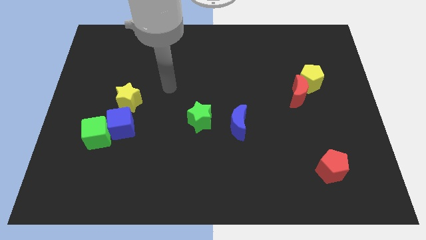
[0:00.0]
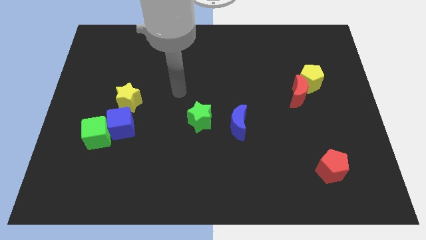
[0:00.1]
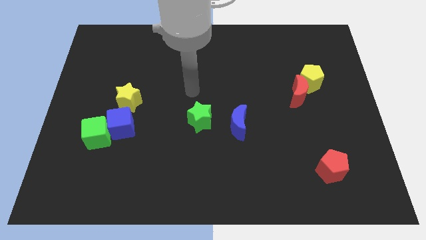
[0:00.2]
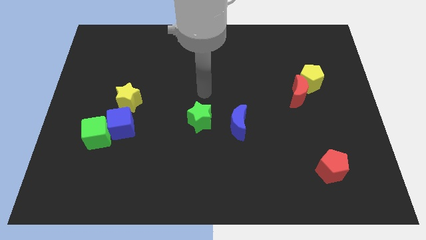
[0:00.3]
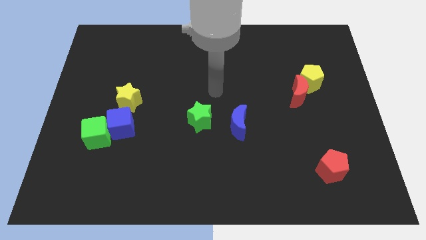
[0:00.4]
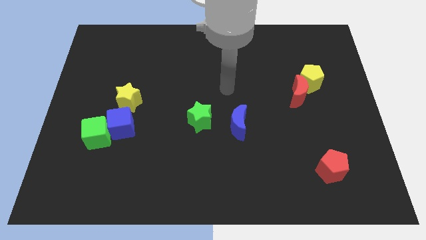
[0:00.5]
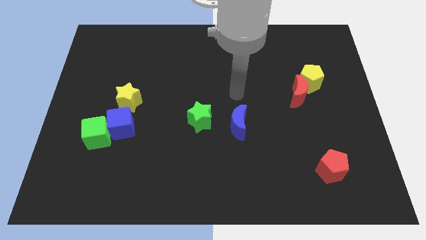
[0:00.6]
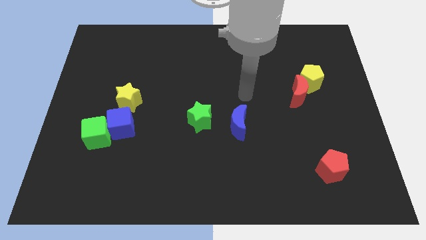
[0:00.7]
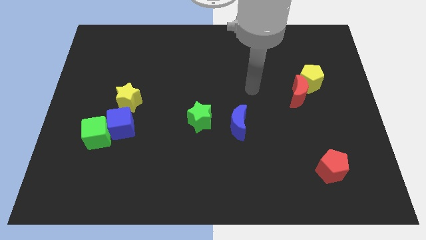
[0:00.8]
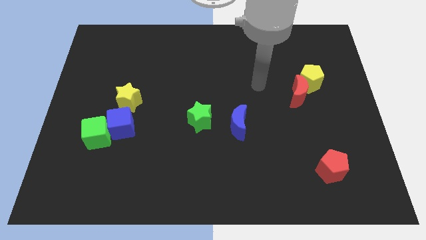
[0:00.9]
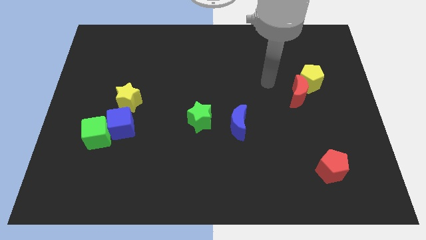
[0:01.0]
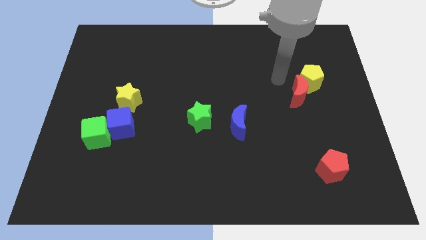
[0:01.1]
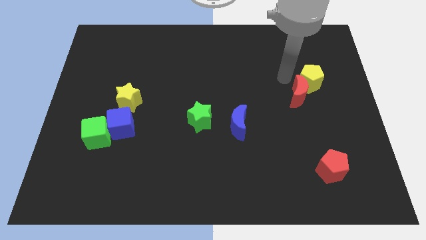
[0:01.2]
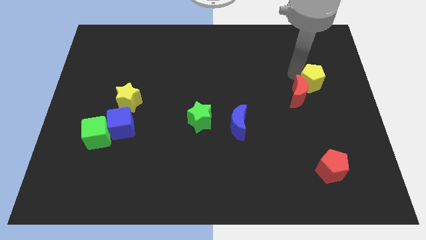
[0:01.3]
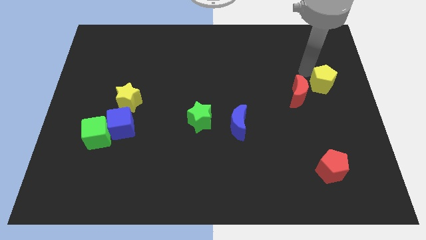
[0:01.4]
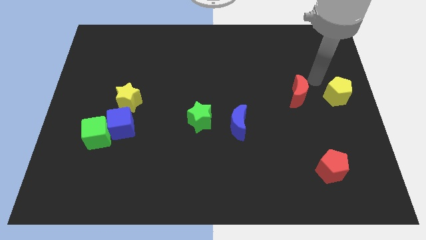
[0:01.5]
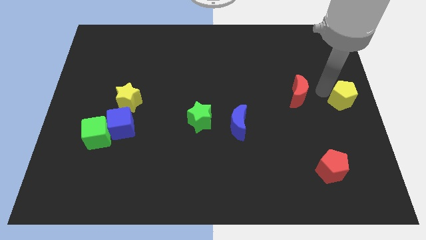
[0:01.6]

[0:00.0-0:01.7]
separate the red moon from the yellow pentagon

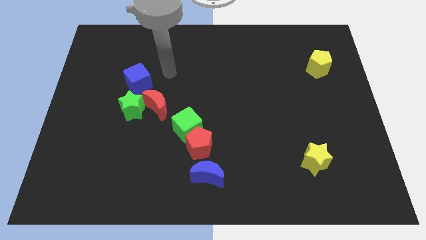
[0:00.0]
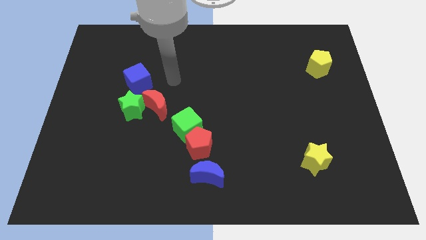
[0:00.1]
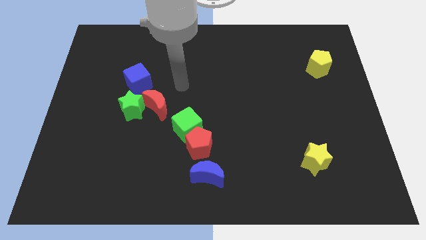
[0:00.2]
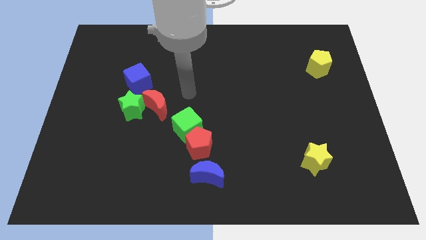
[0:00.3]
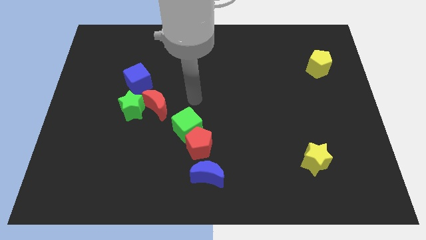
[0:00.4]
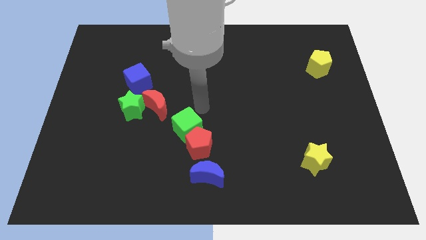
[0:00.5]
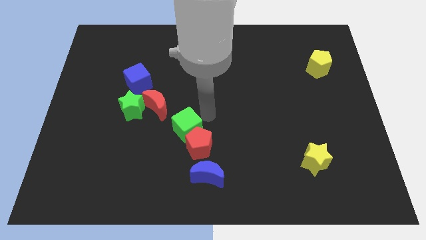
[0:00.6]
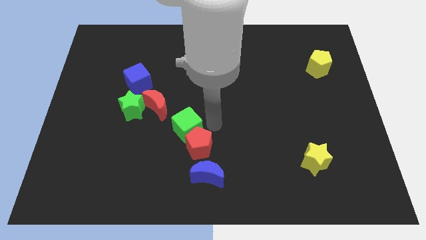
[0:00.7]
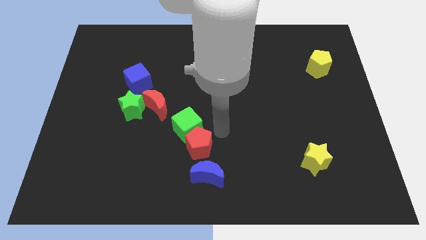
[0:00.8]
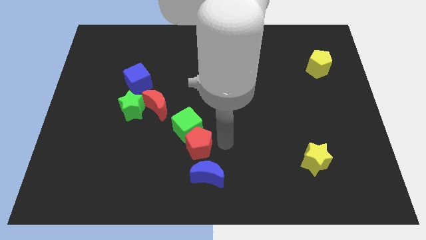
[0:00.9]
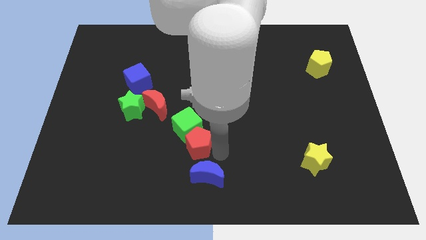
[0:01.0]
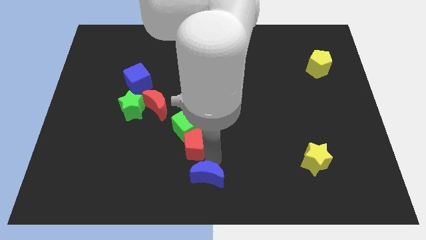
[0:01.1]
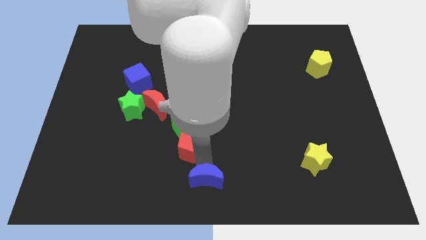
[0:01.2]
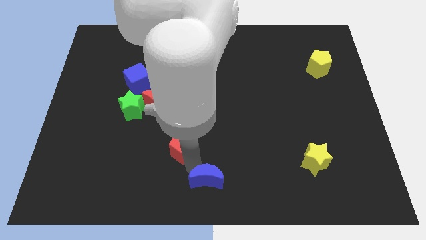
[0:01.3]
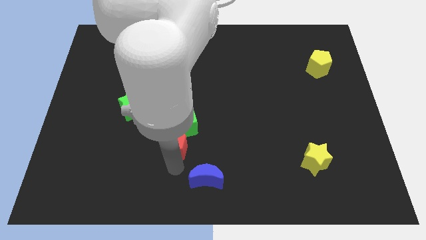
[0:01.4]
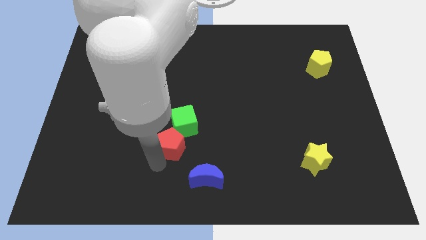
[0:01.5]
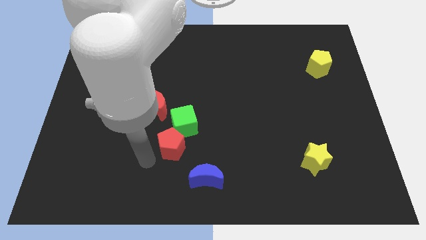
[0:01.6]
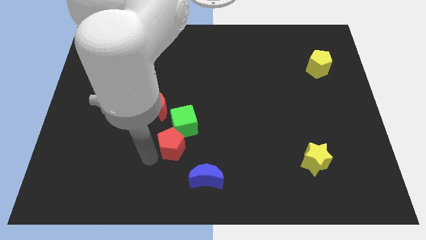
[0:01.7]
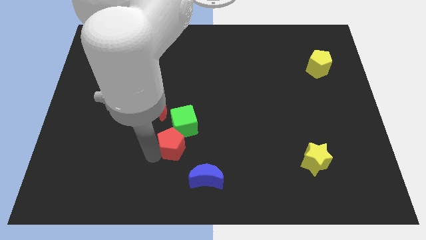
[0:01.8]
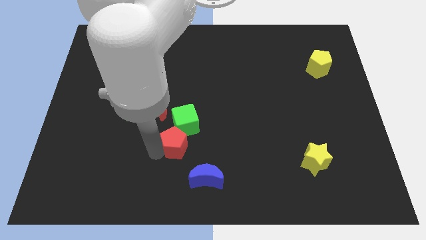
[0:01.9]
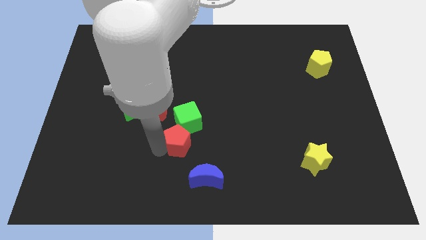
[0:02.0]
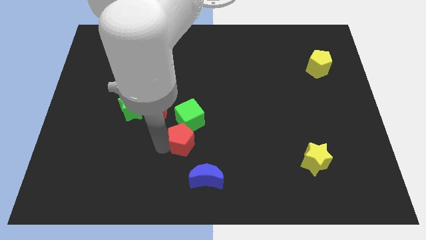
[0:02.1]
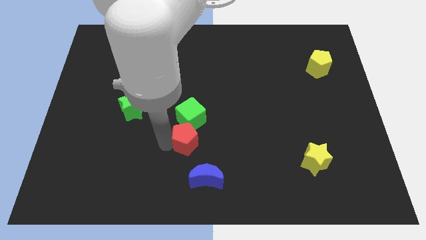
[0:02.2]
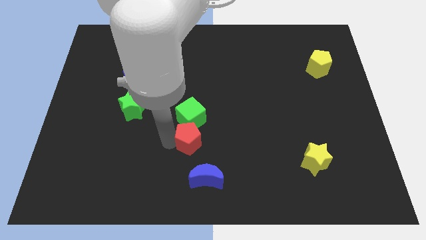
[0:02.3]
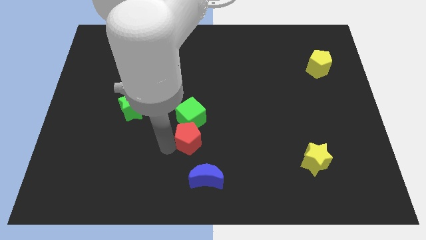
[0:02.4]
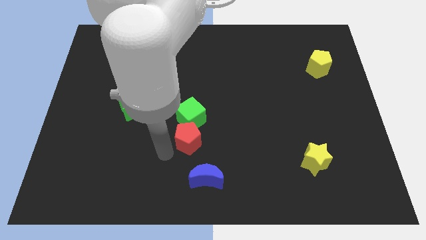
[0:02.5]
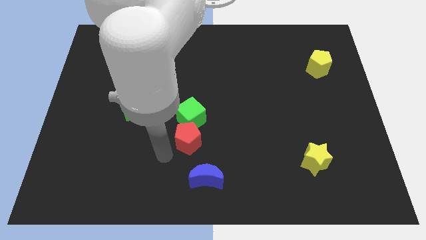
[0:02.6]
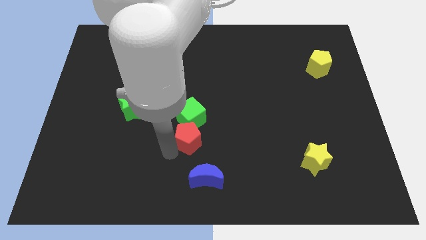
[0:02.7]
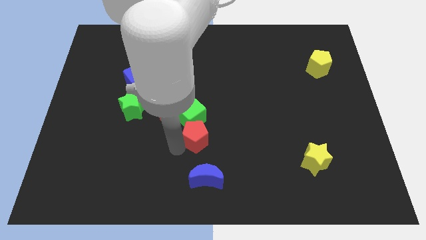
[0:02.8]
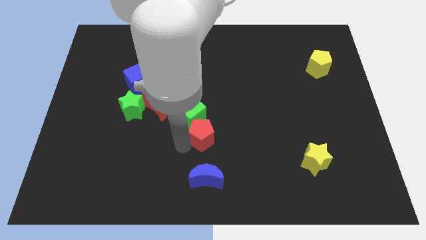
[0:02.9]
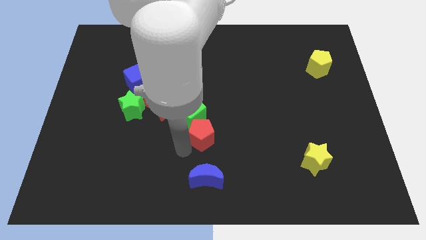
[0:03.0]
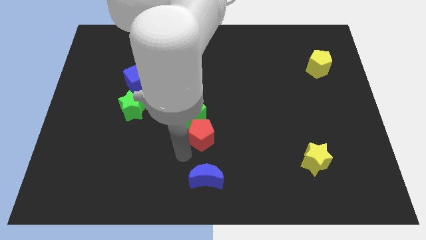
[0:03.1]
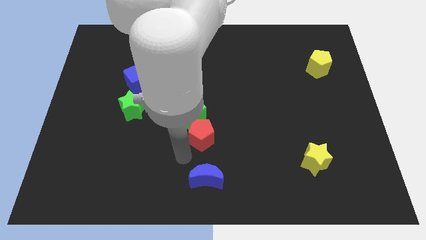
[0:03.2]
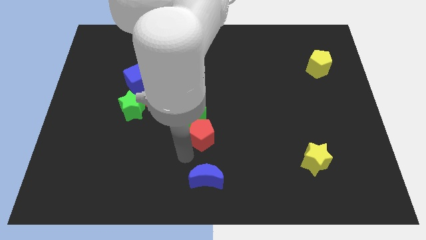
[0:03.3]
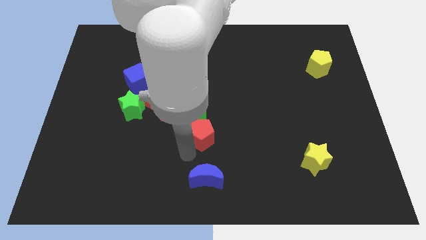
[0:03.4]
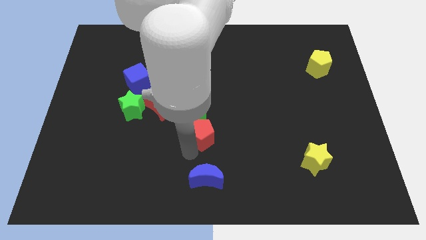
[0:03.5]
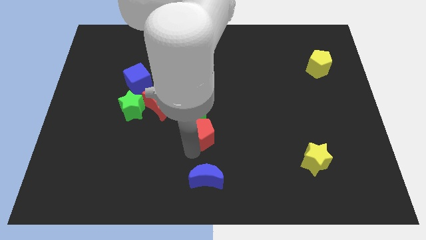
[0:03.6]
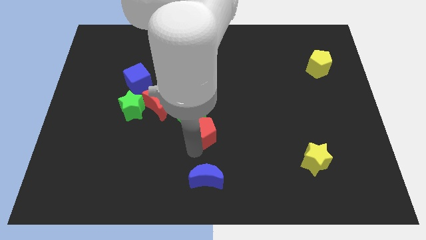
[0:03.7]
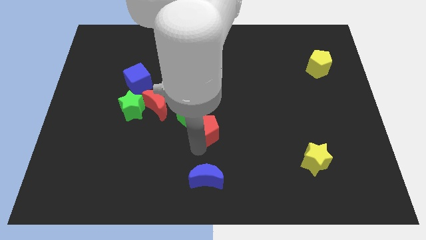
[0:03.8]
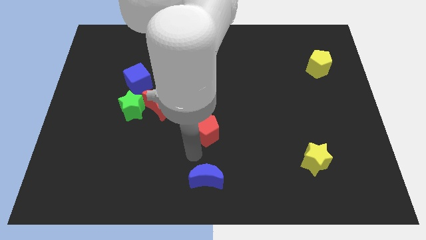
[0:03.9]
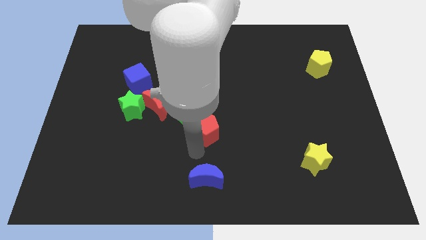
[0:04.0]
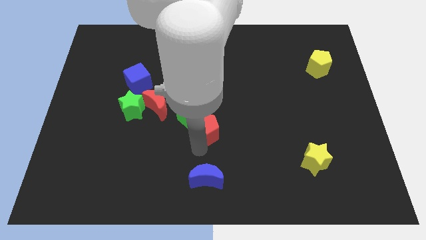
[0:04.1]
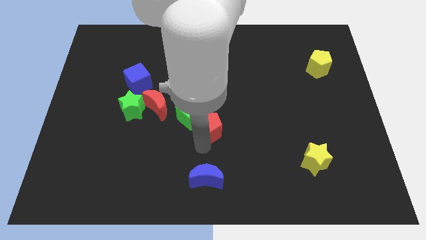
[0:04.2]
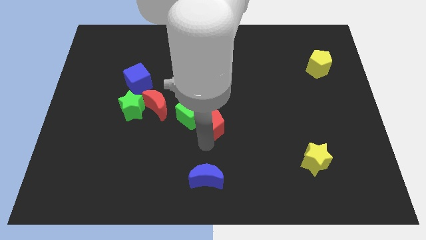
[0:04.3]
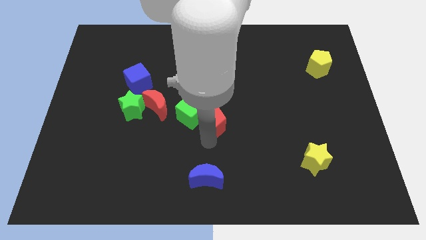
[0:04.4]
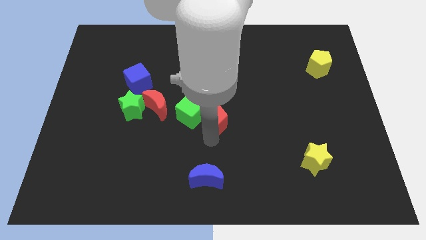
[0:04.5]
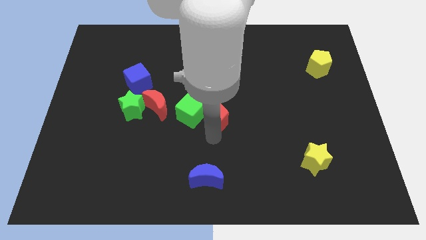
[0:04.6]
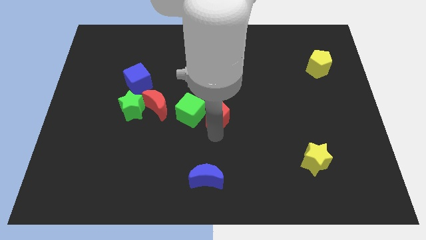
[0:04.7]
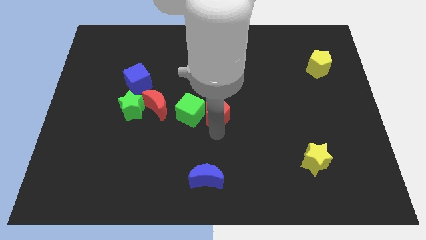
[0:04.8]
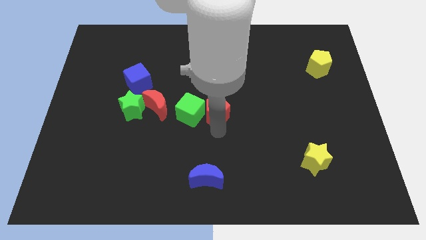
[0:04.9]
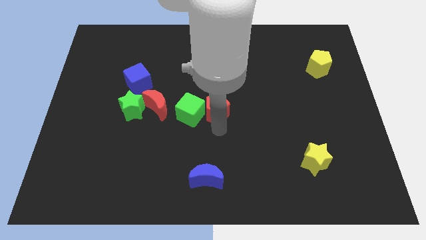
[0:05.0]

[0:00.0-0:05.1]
move the red pentagon away from the green cube and blue moon

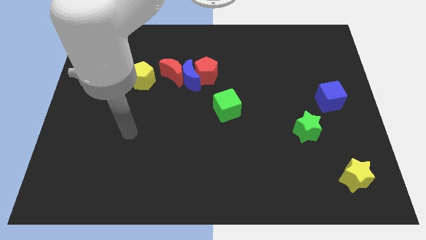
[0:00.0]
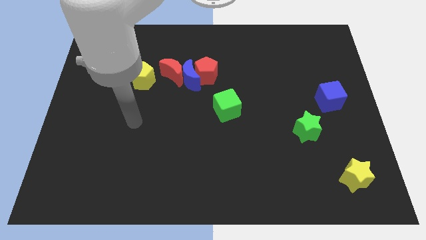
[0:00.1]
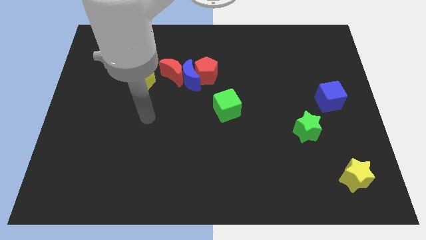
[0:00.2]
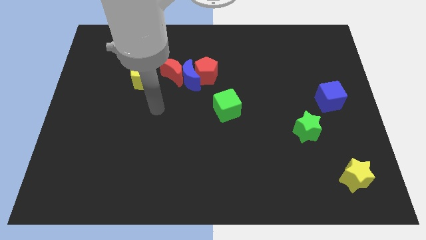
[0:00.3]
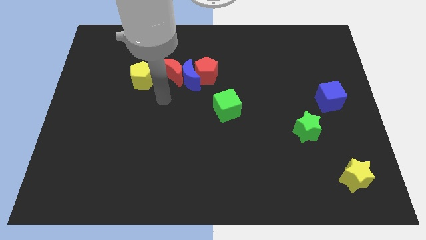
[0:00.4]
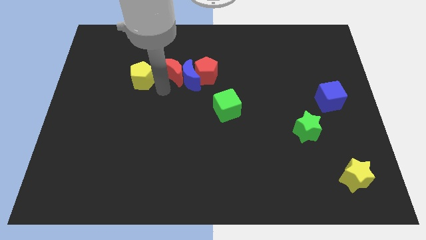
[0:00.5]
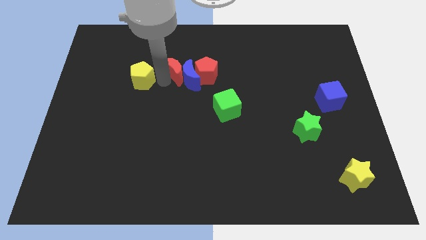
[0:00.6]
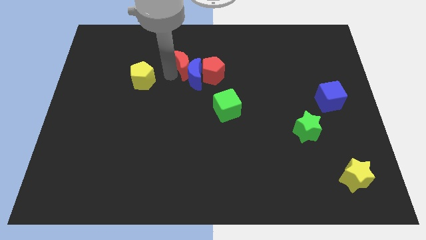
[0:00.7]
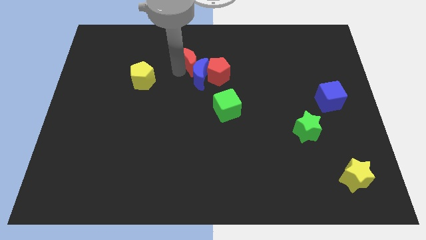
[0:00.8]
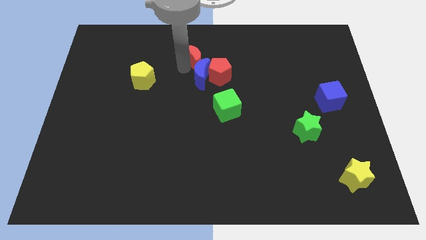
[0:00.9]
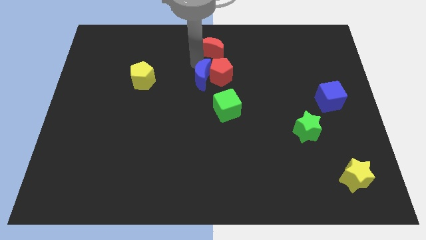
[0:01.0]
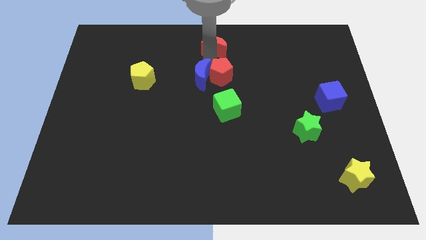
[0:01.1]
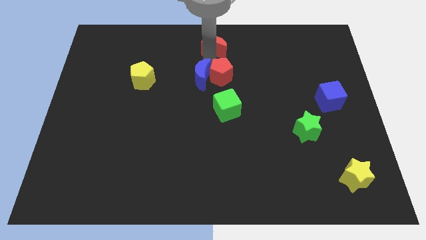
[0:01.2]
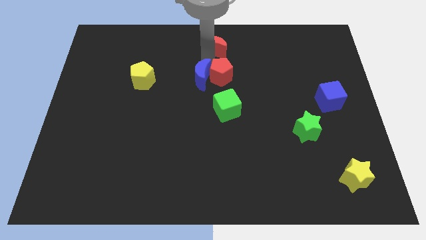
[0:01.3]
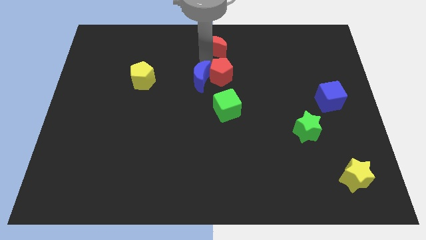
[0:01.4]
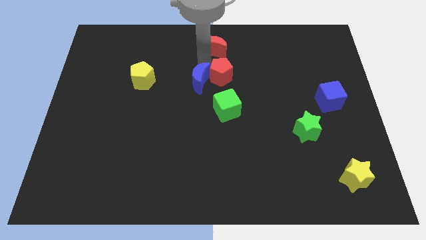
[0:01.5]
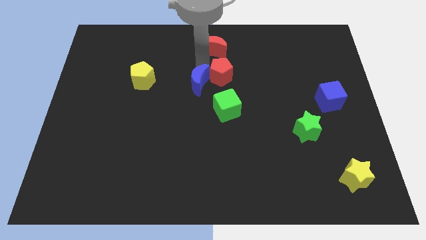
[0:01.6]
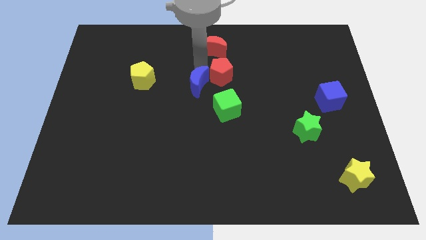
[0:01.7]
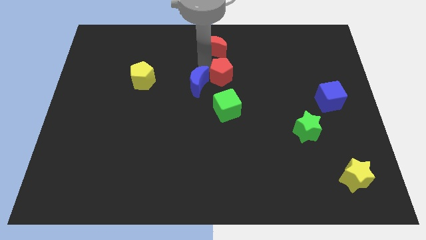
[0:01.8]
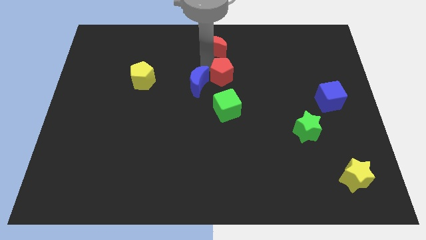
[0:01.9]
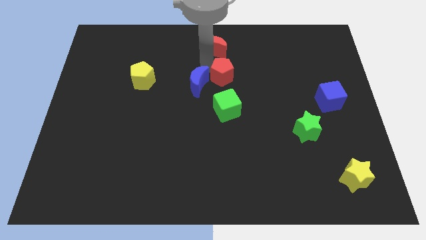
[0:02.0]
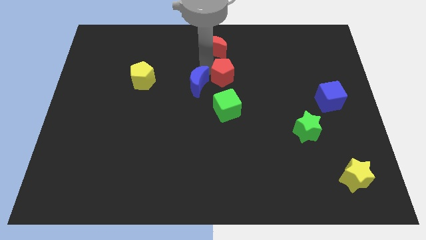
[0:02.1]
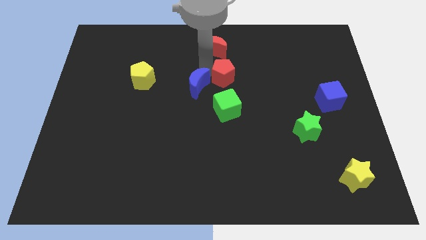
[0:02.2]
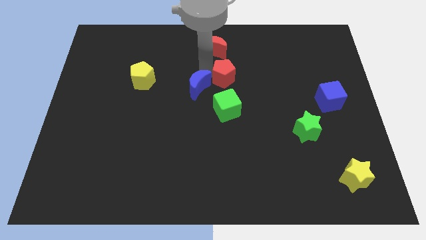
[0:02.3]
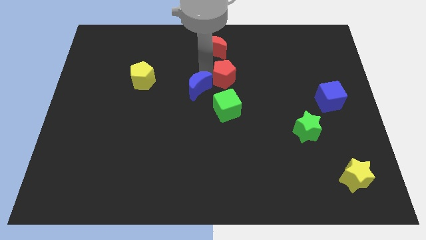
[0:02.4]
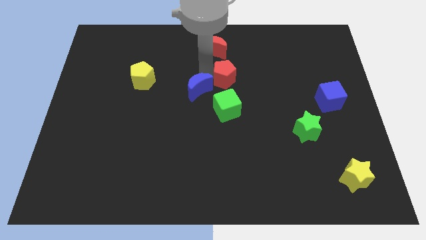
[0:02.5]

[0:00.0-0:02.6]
separate the blue moon from the red pentagon and red moon

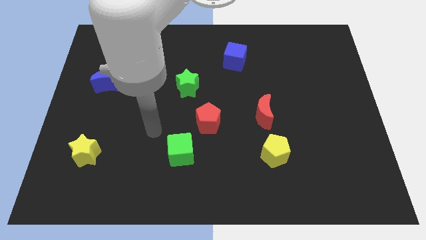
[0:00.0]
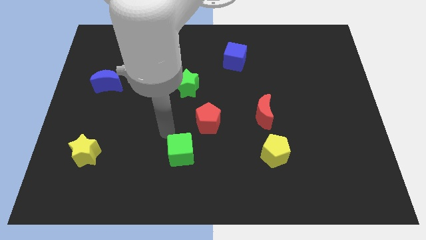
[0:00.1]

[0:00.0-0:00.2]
pull the red pentagon apart from the green cube
